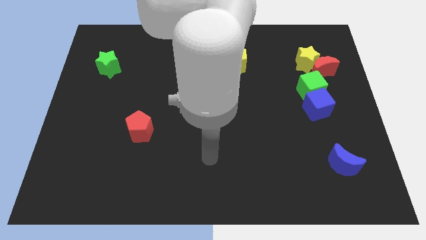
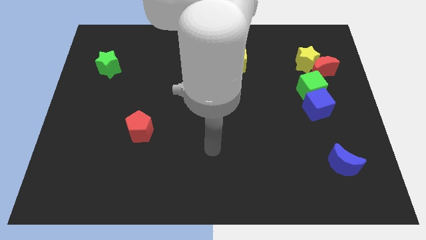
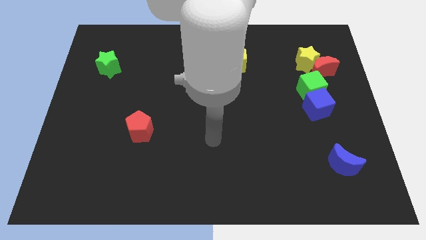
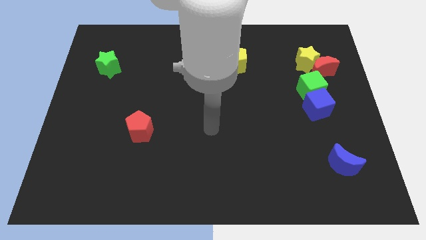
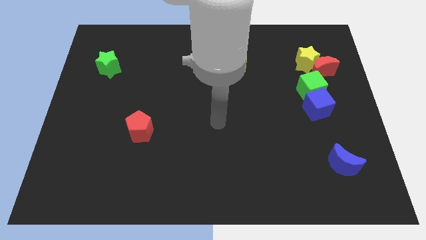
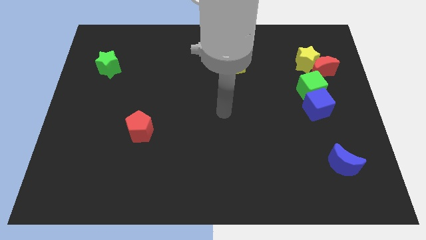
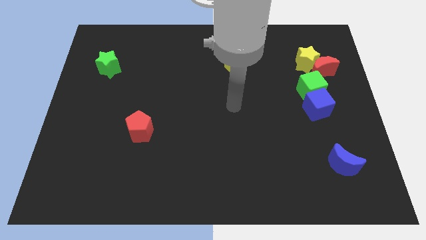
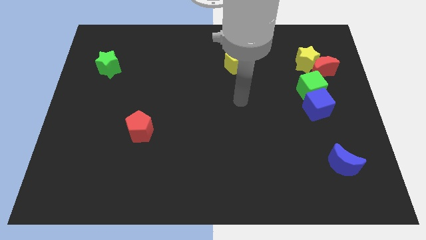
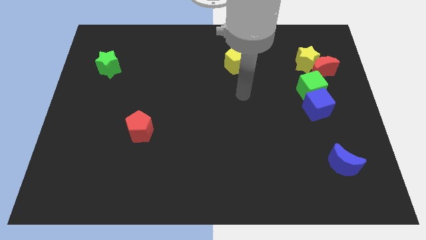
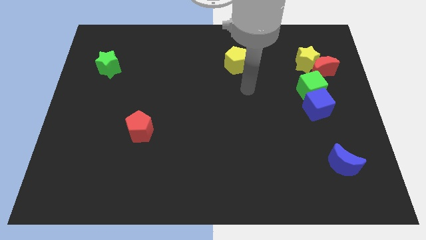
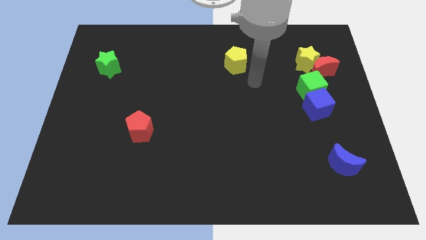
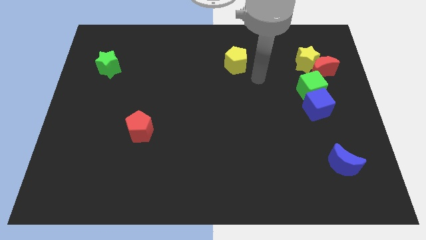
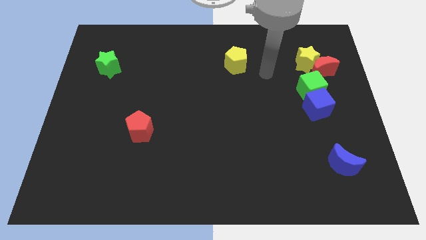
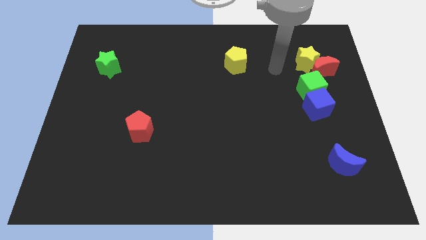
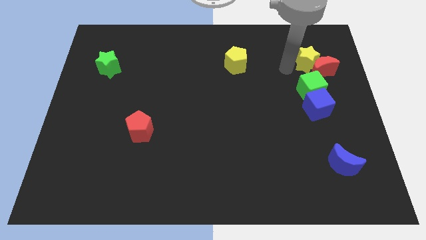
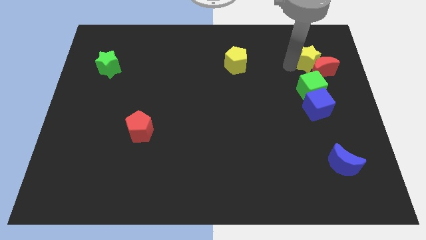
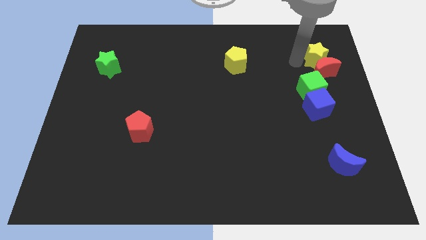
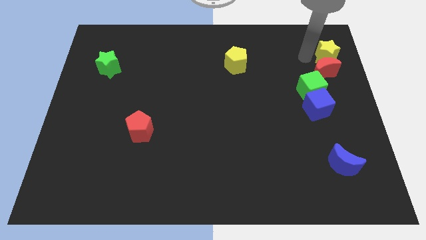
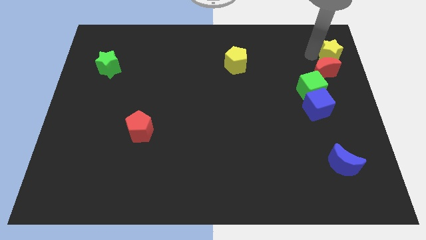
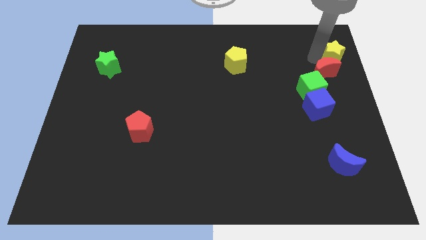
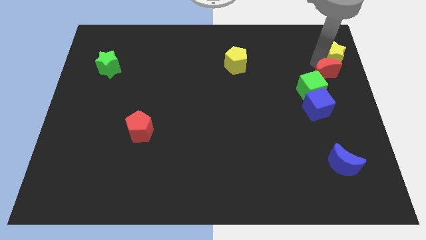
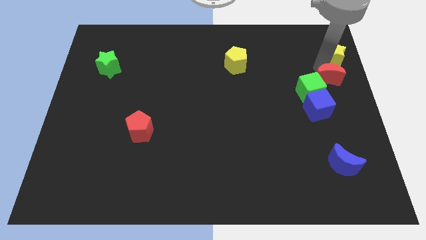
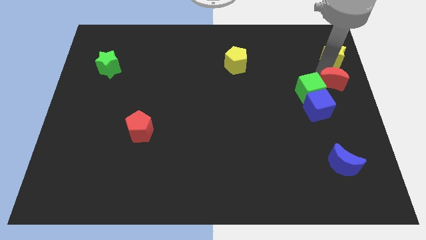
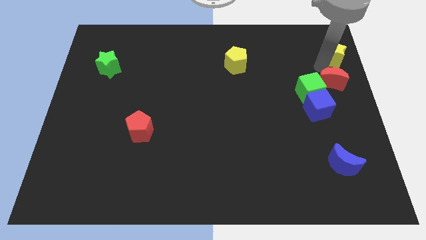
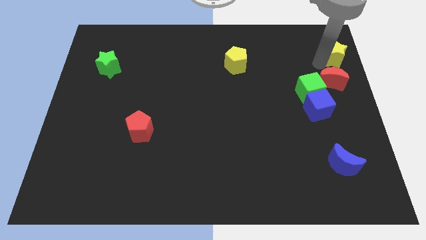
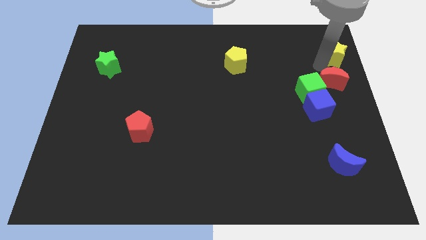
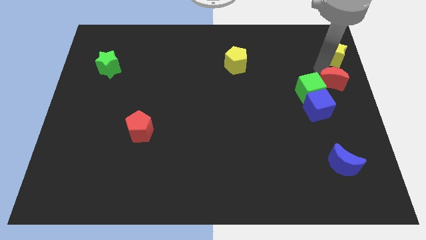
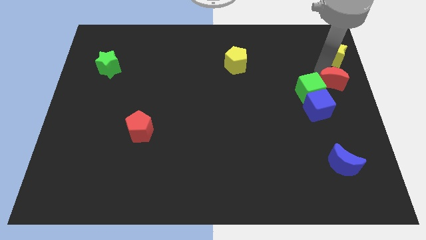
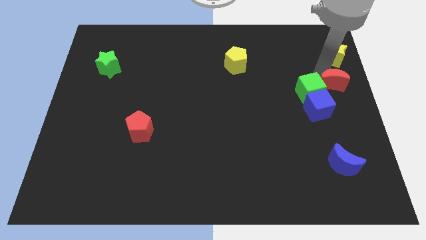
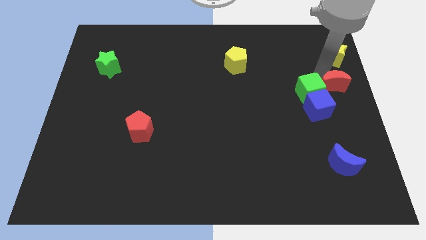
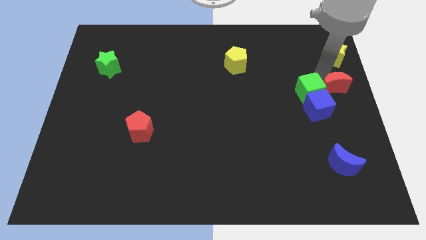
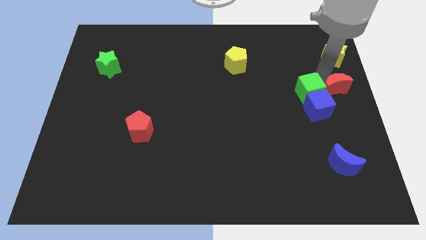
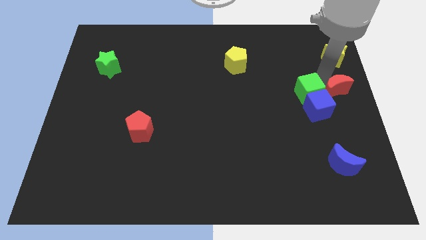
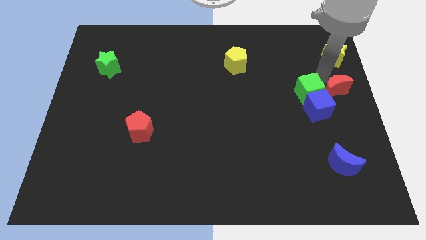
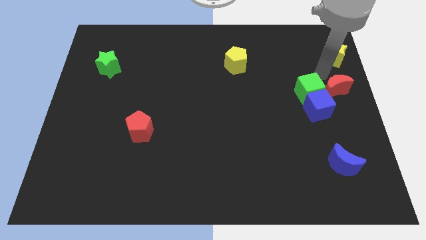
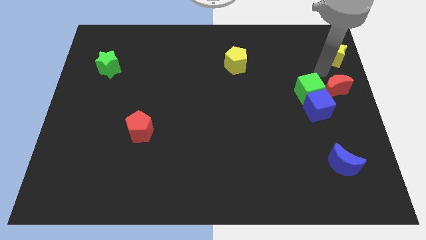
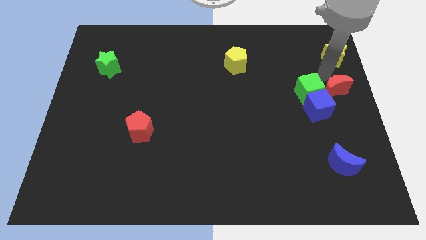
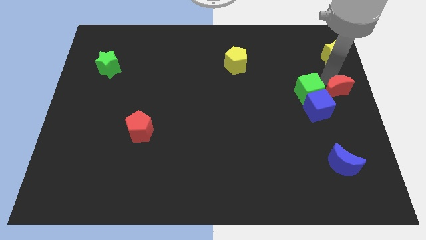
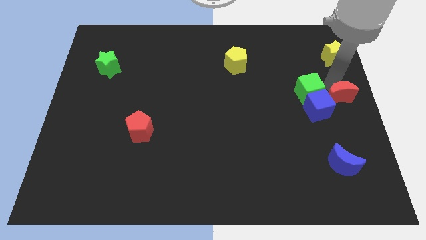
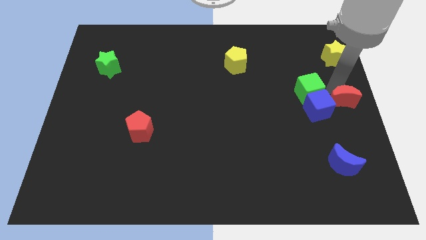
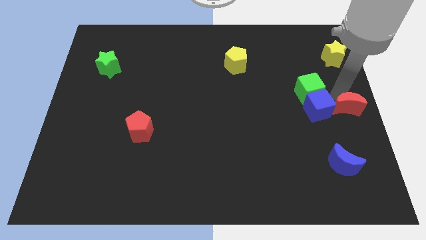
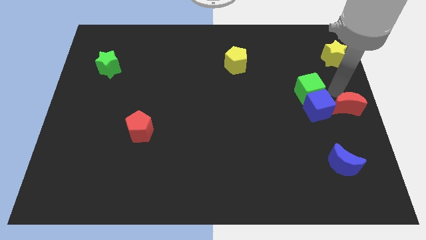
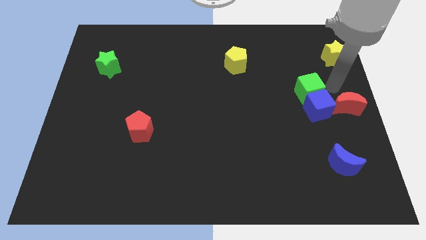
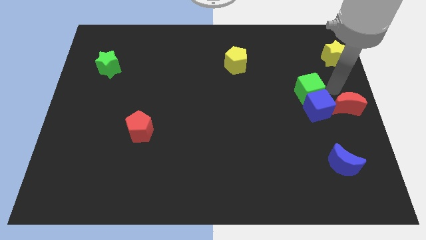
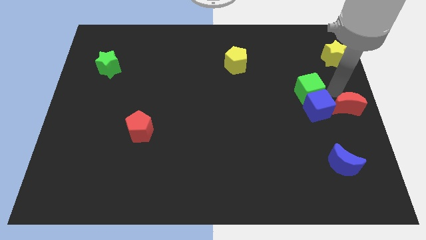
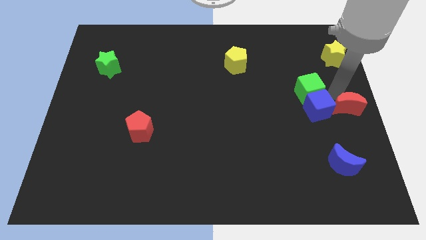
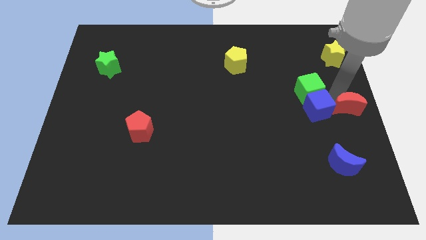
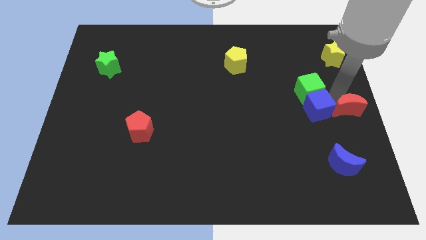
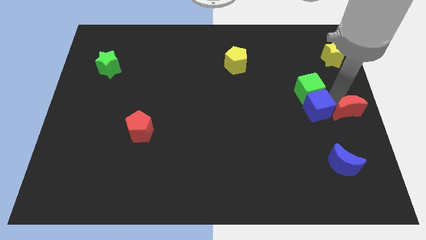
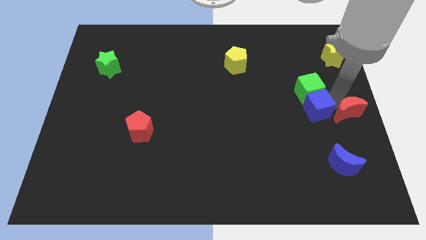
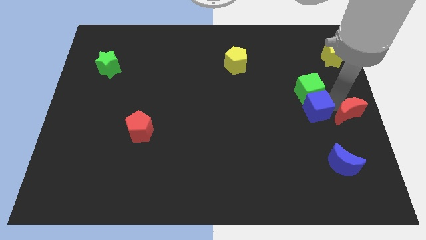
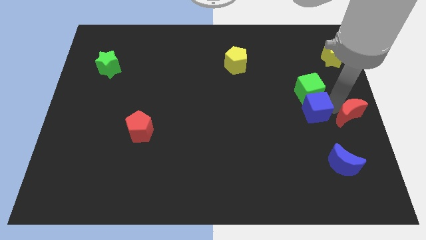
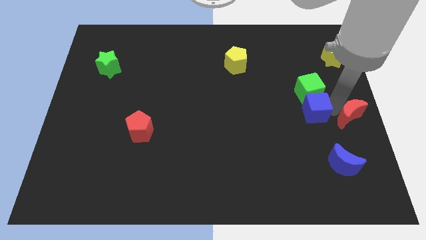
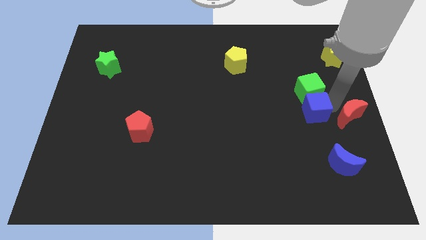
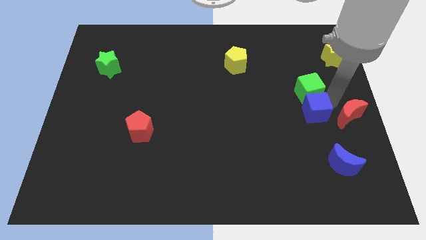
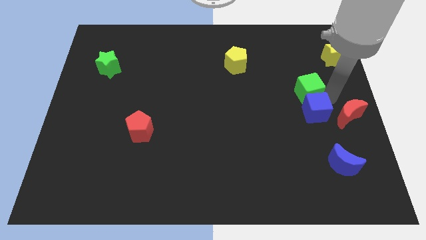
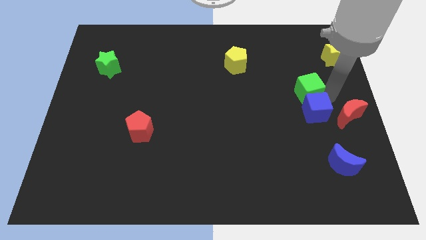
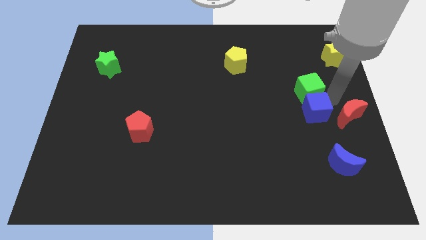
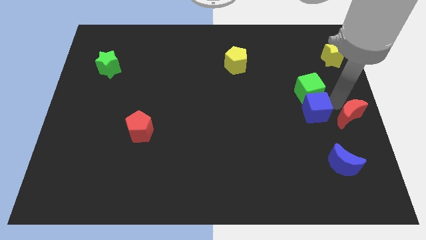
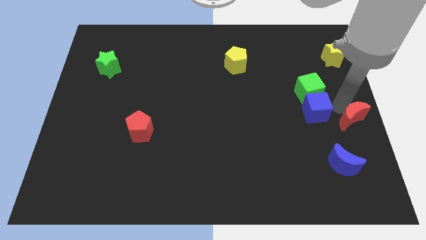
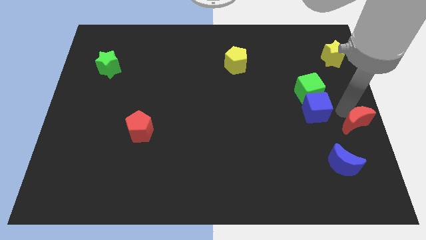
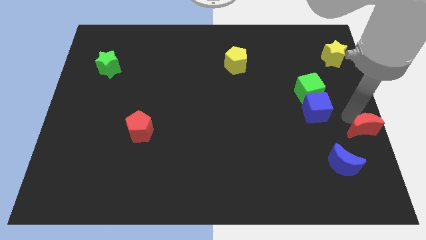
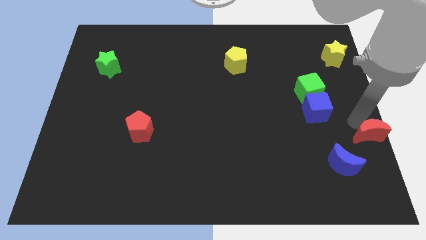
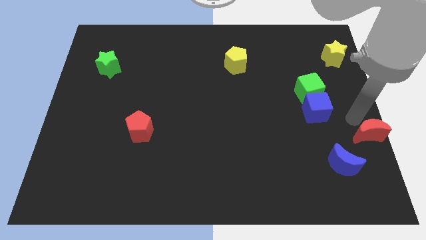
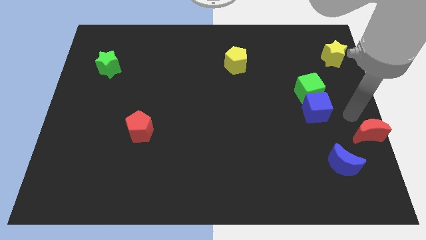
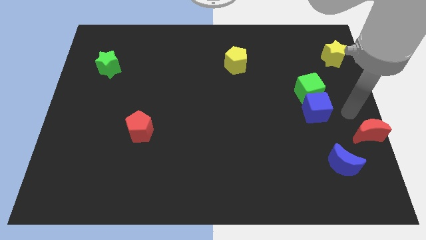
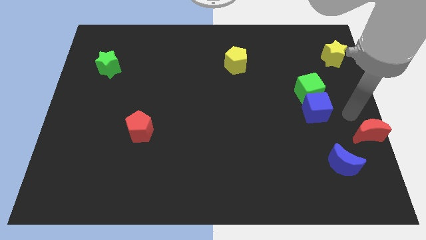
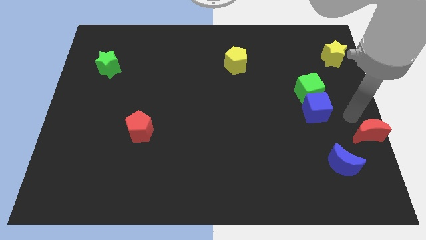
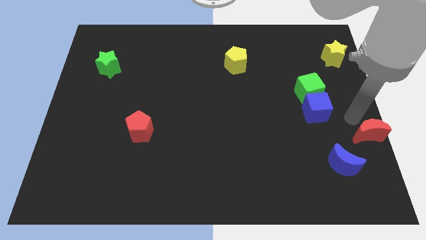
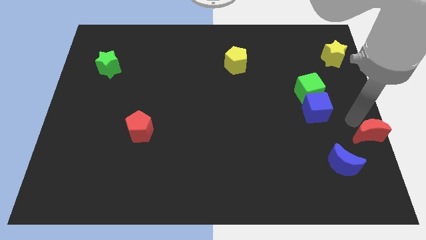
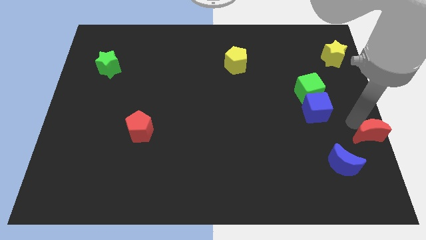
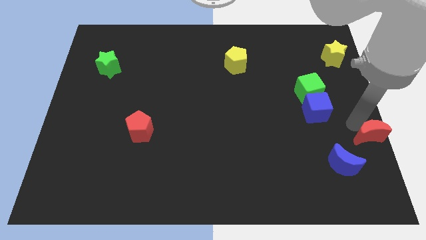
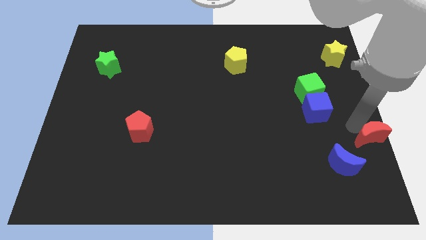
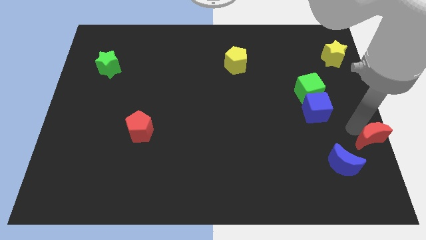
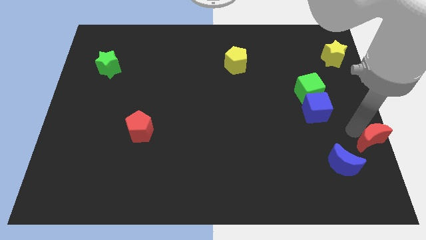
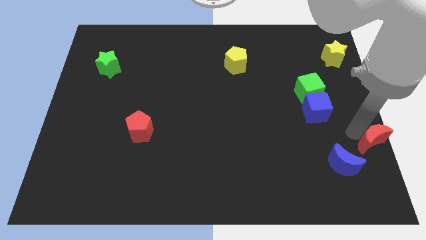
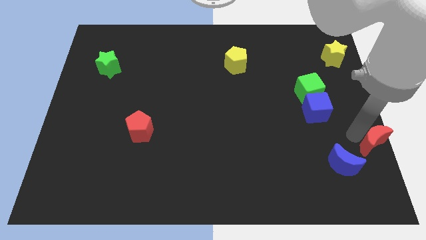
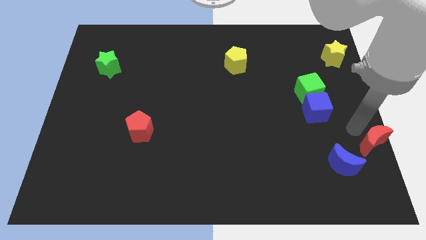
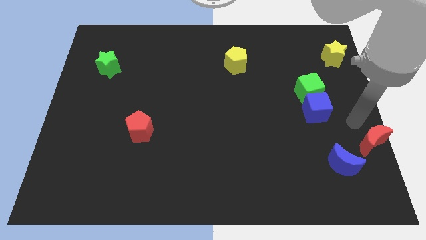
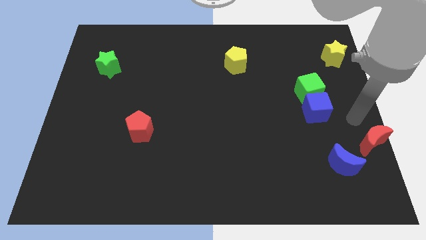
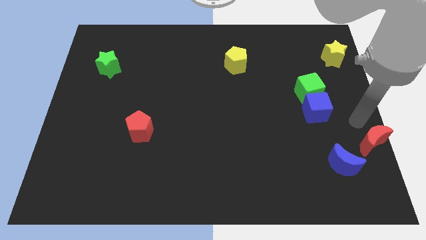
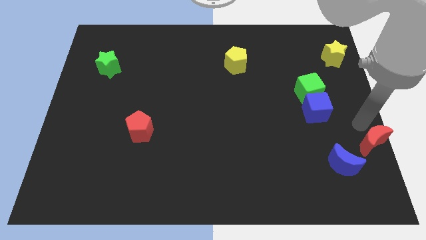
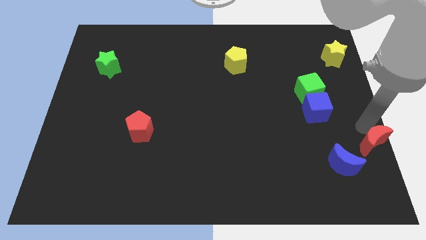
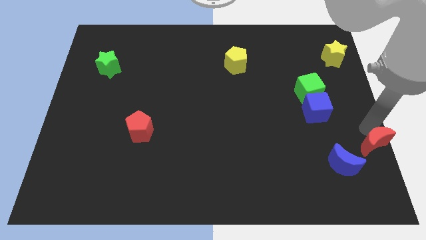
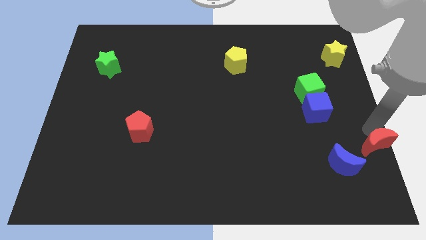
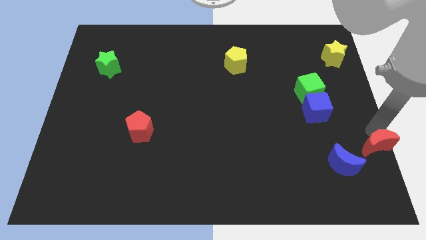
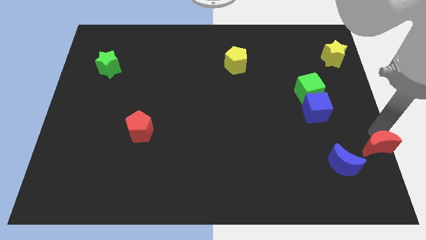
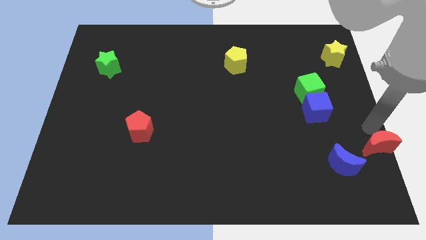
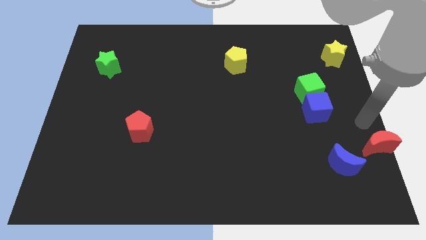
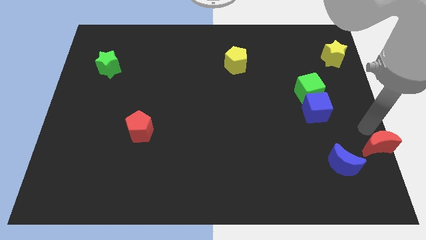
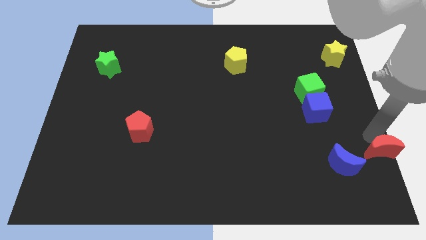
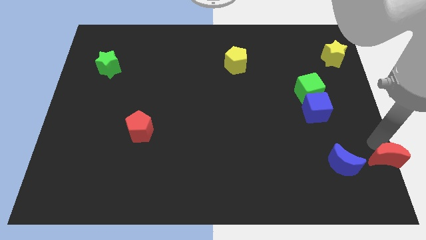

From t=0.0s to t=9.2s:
push the red moon to the bottom right corner
